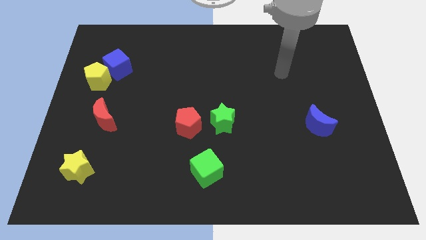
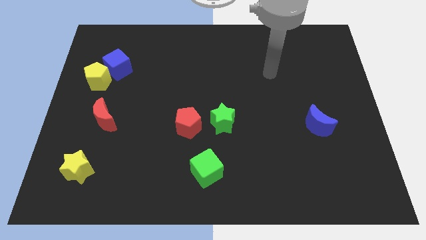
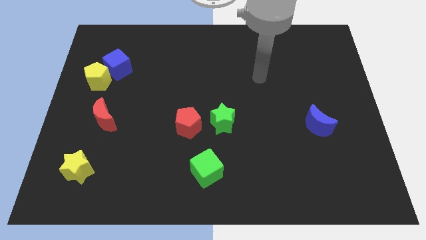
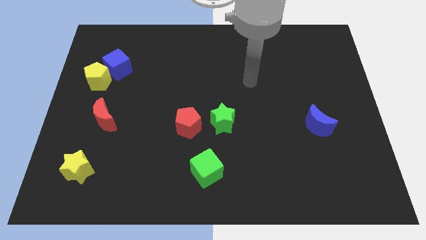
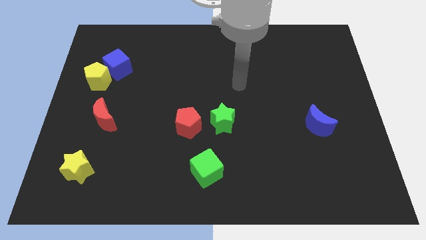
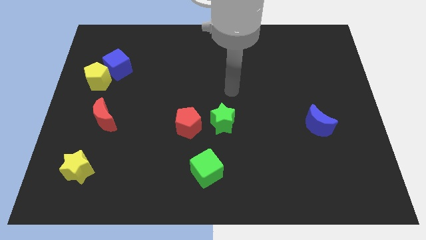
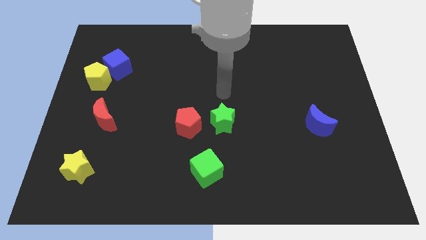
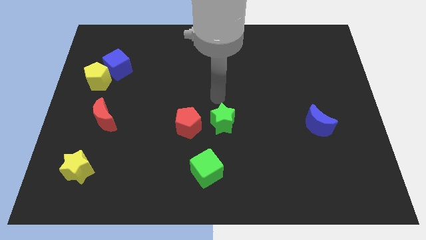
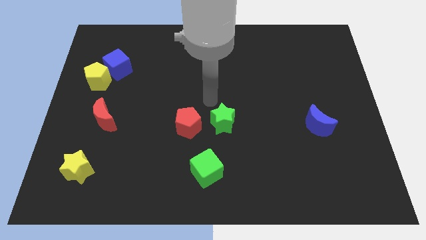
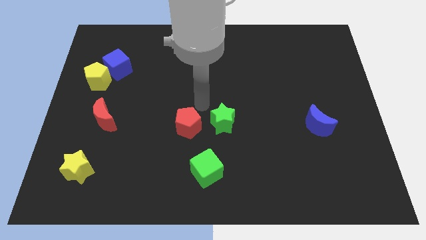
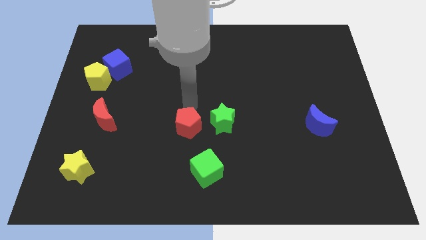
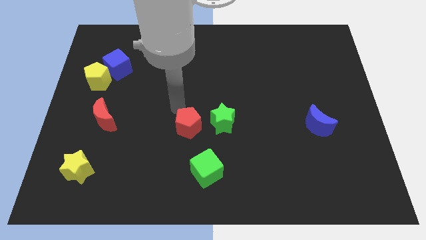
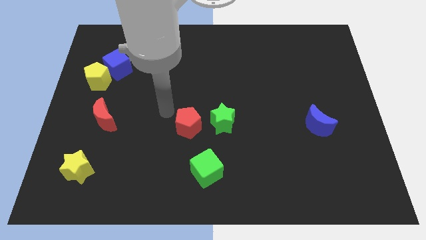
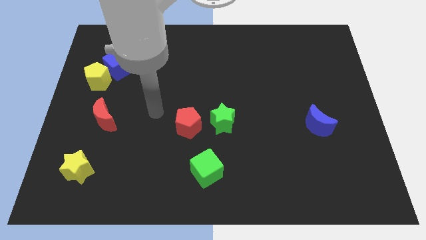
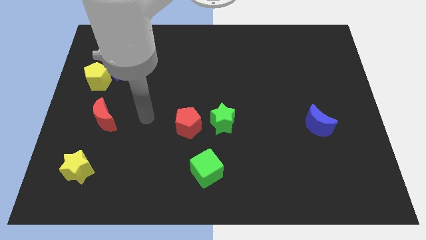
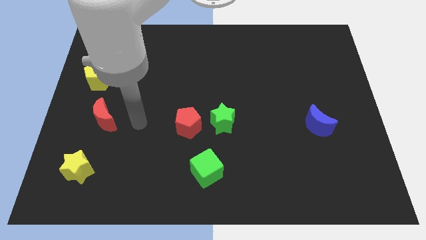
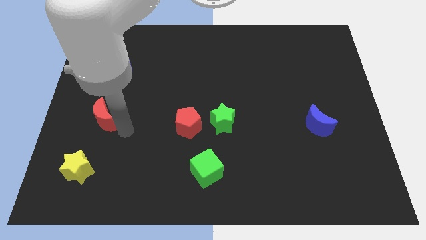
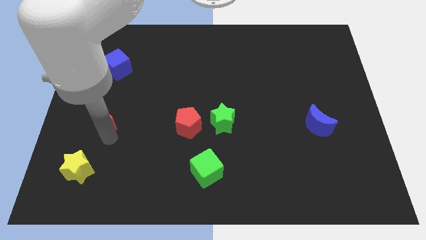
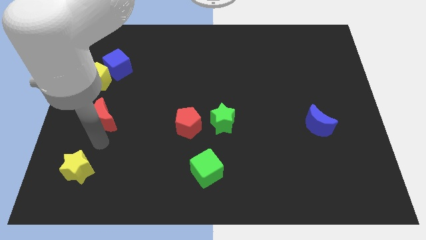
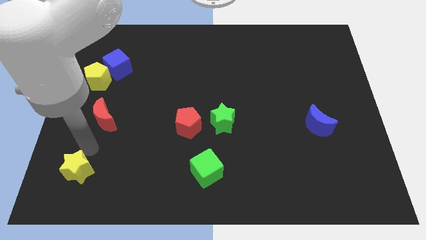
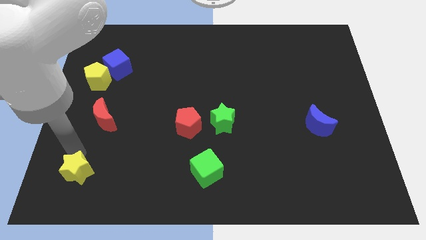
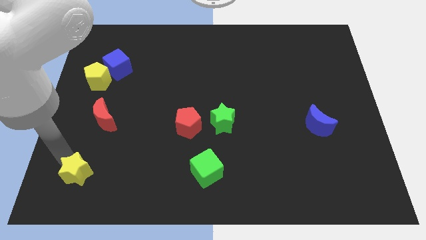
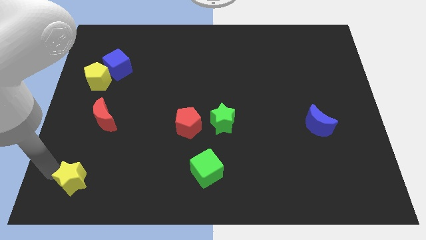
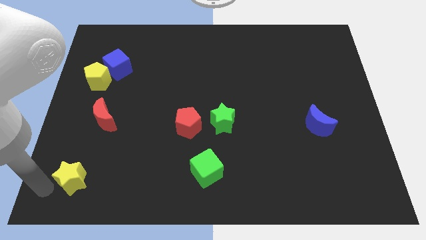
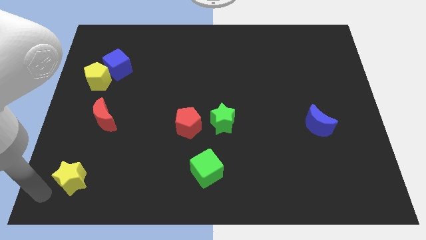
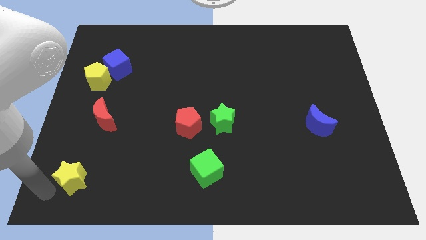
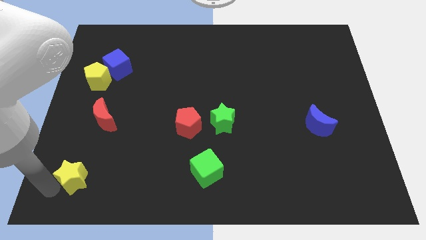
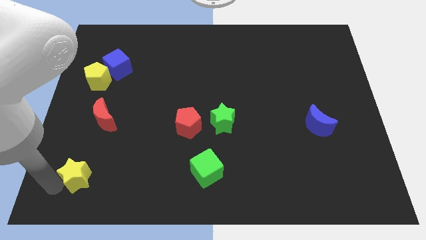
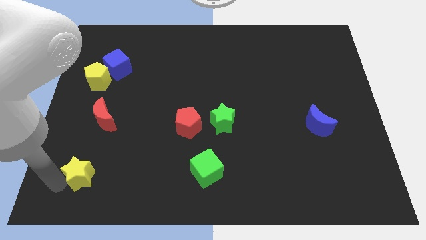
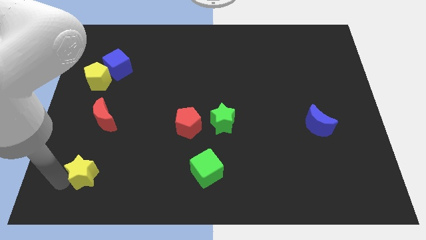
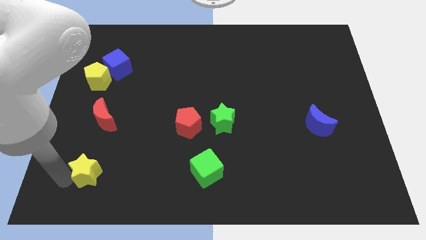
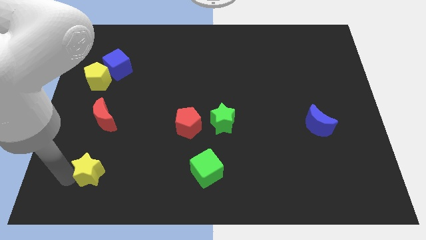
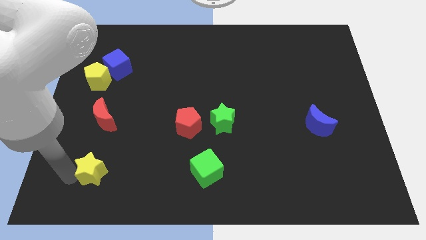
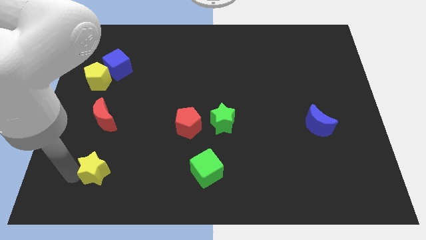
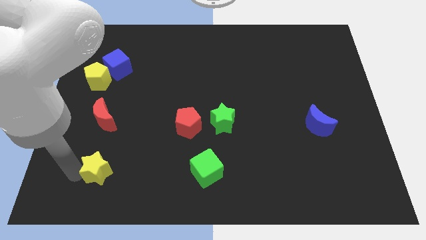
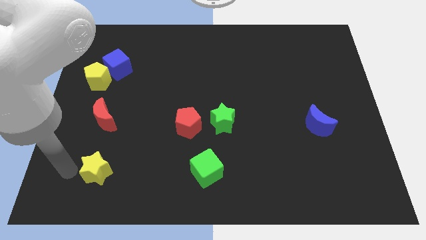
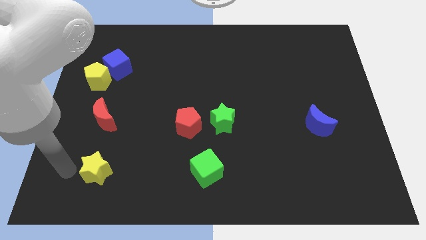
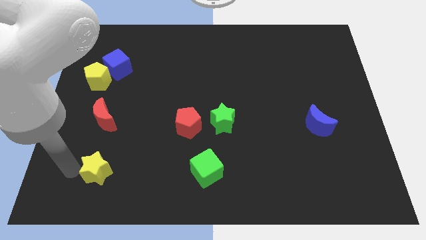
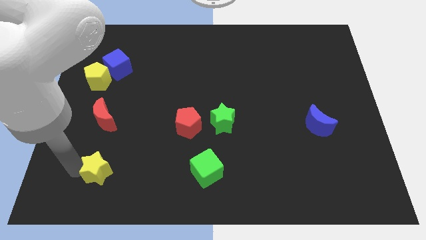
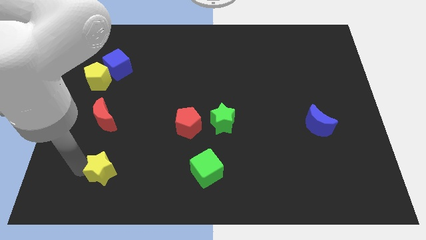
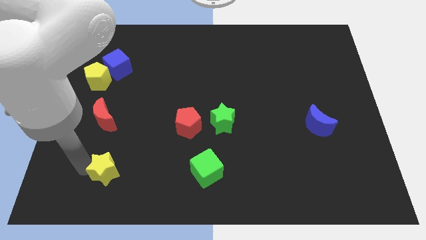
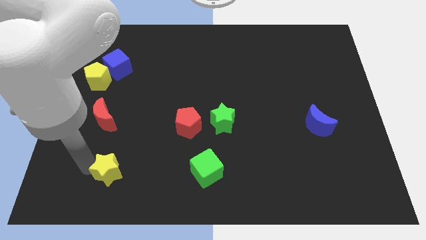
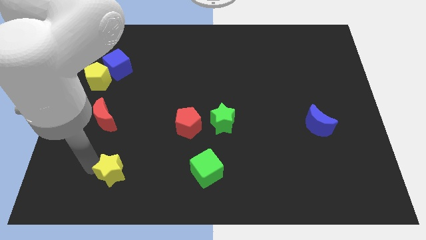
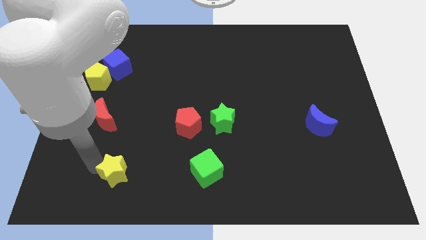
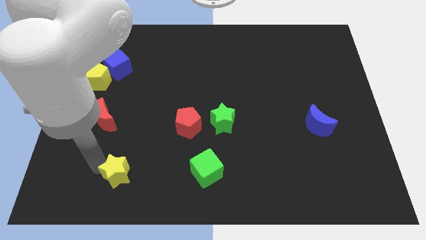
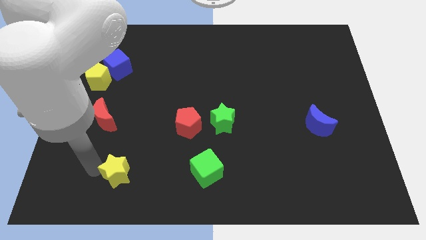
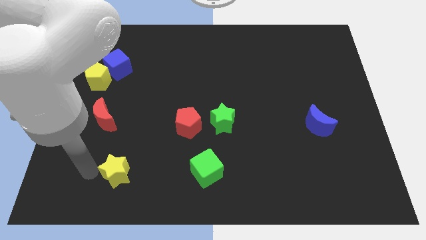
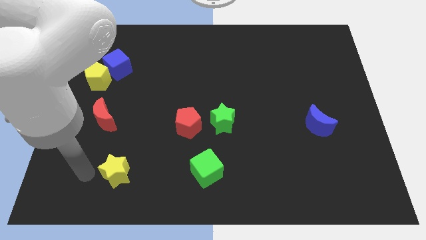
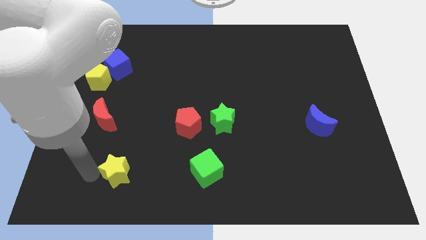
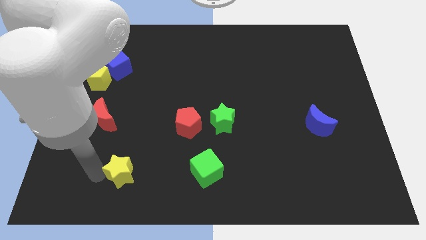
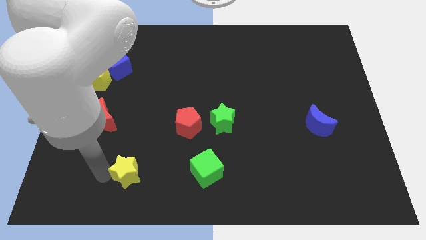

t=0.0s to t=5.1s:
put the yellow star to the left of the green cube

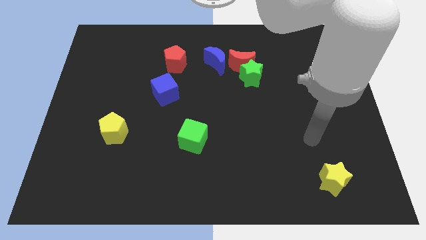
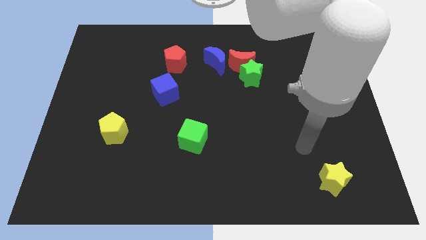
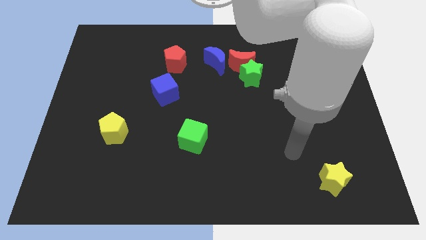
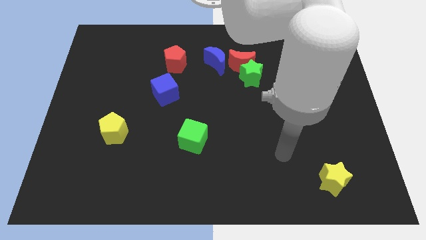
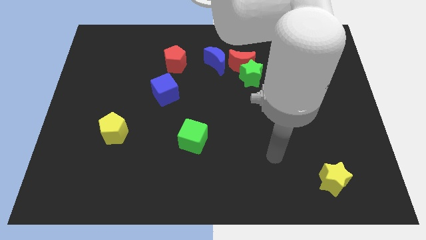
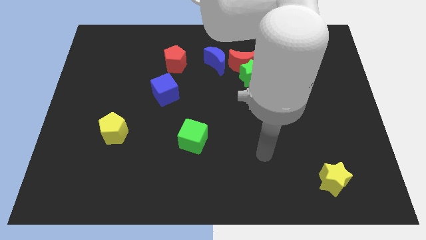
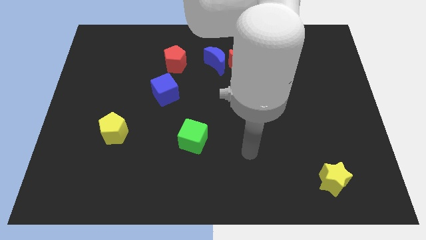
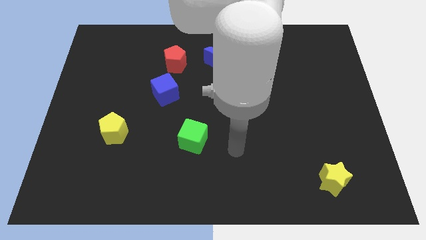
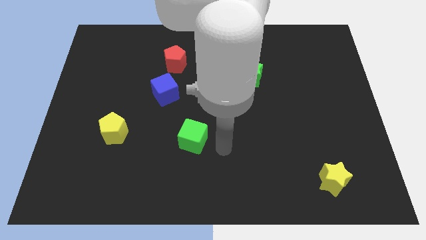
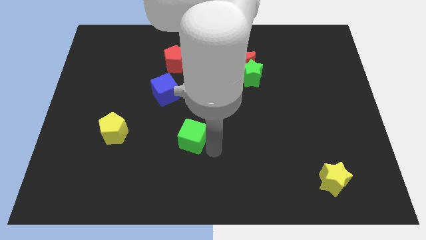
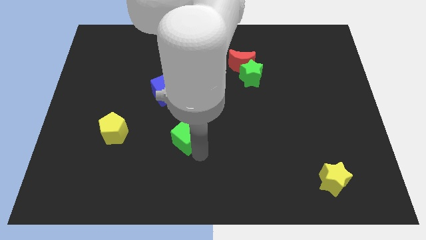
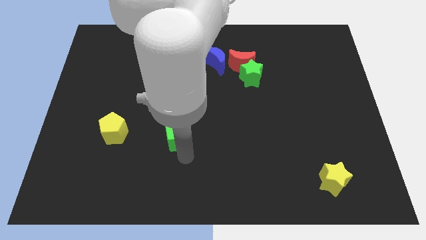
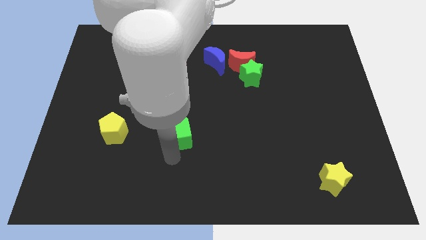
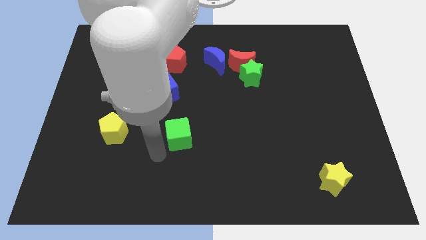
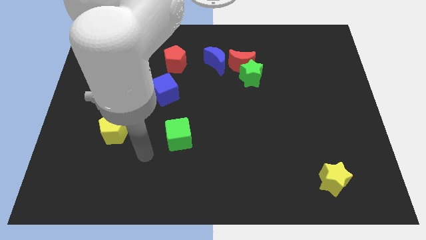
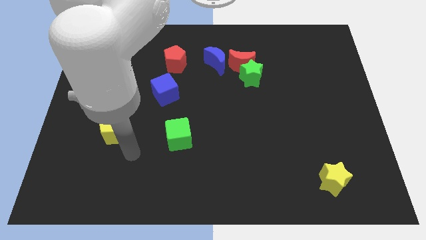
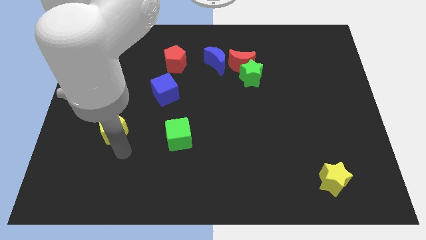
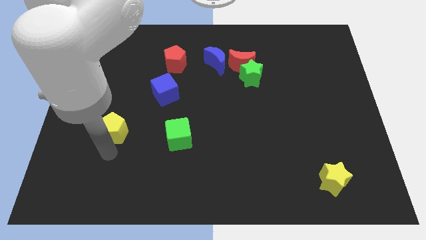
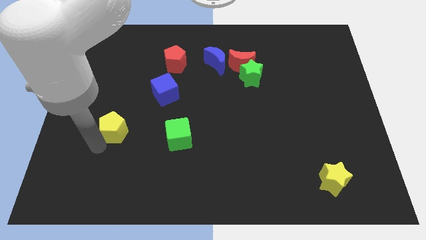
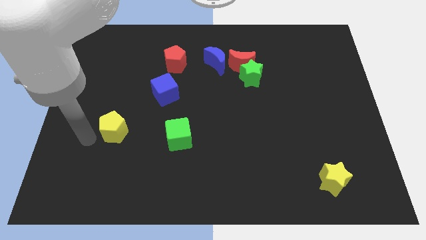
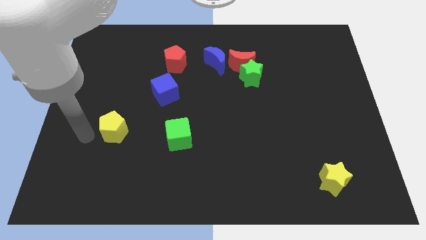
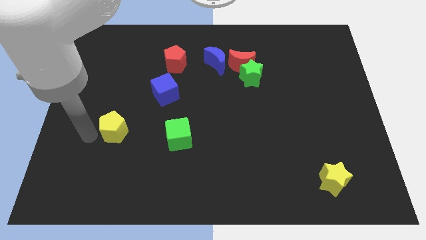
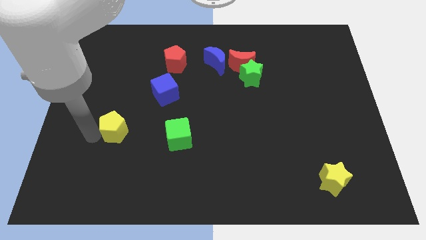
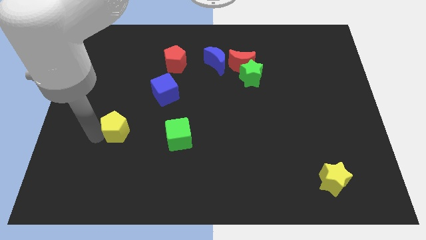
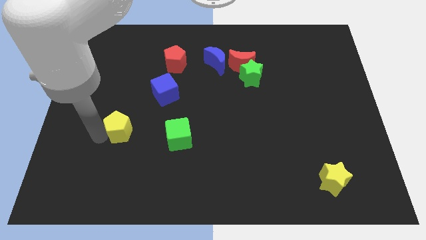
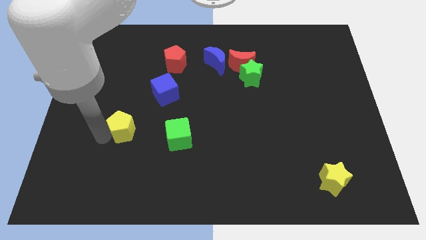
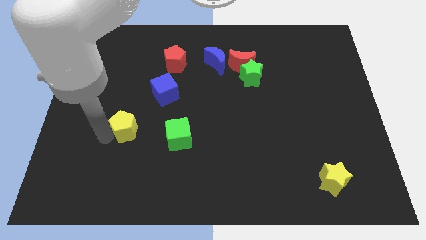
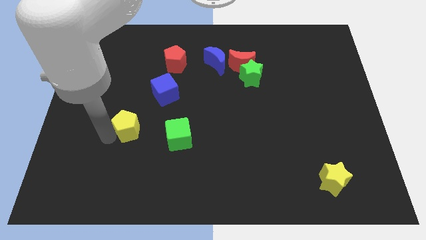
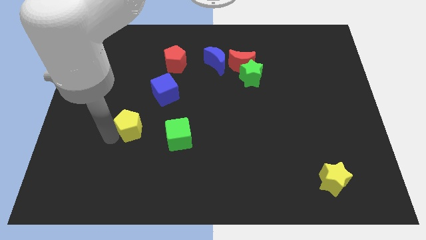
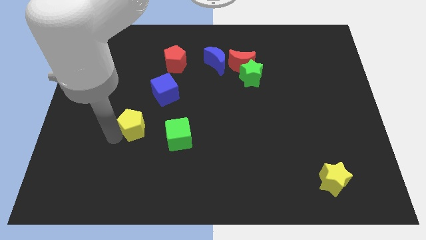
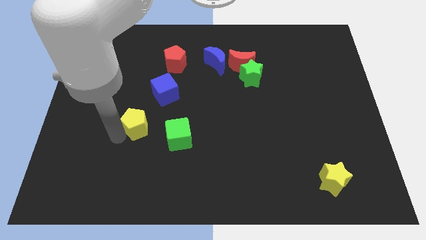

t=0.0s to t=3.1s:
slide the yellow pentagon to the top left of the green cube
